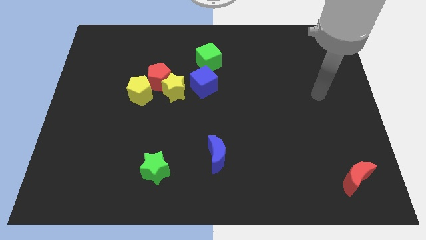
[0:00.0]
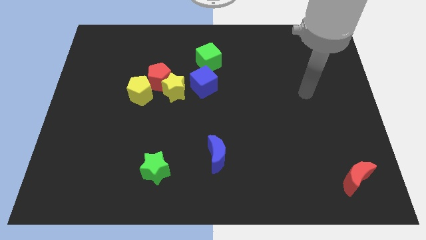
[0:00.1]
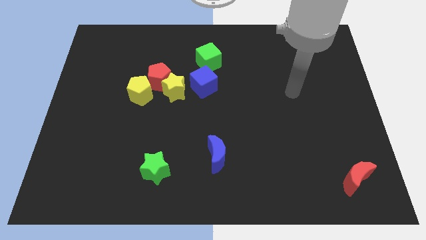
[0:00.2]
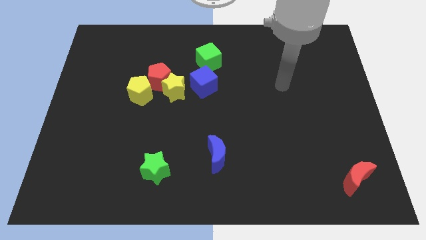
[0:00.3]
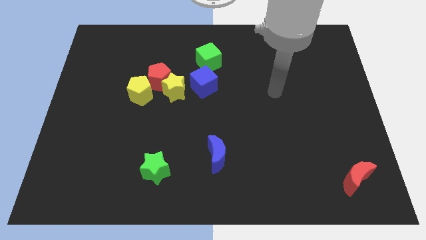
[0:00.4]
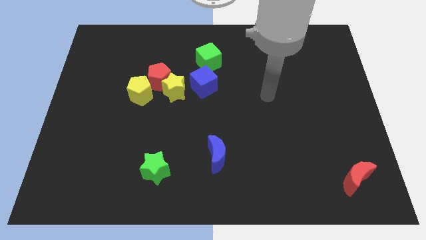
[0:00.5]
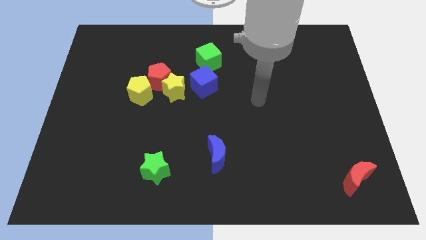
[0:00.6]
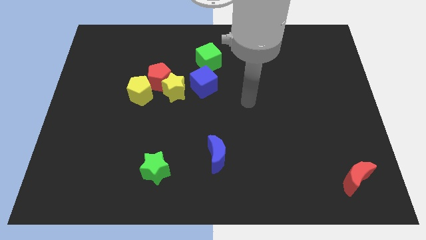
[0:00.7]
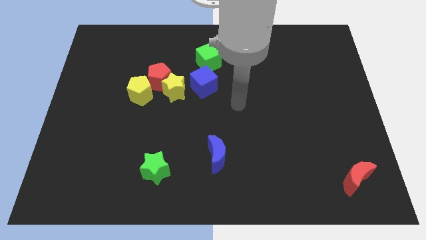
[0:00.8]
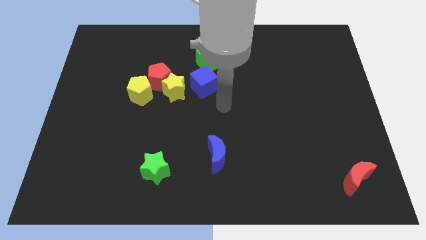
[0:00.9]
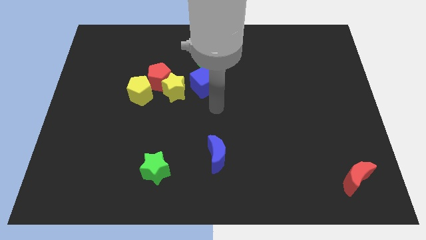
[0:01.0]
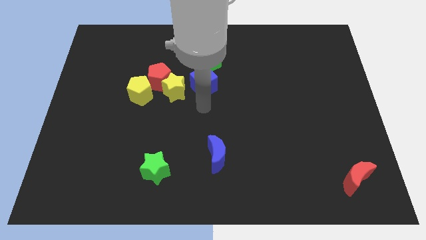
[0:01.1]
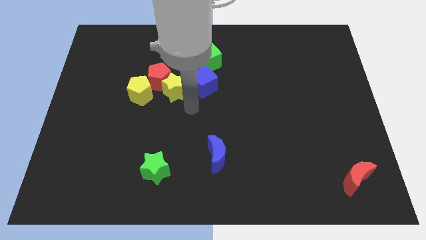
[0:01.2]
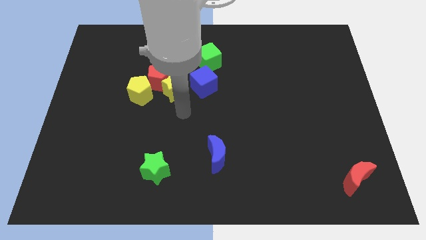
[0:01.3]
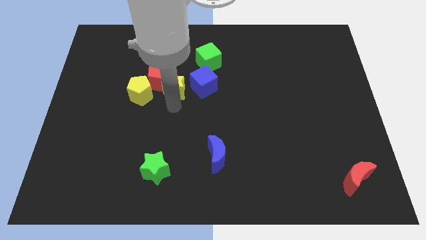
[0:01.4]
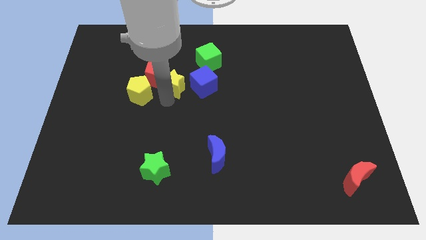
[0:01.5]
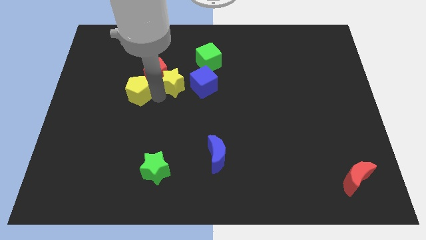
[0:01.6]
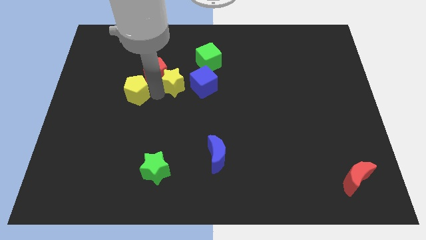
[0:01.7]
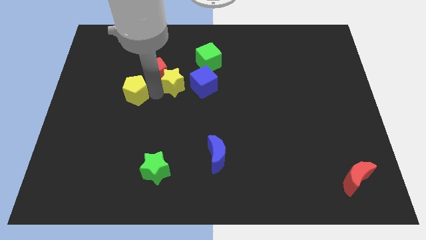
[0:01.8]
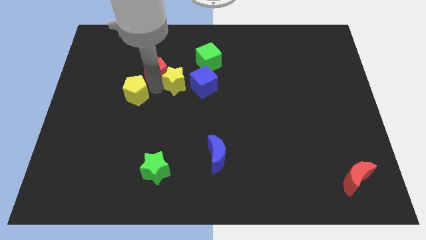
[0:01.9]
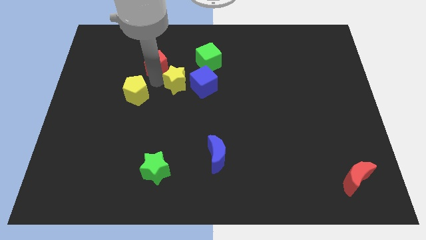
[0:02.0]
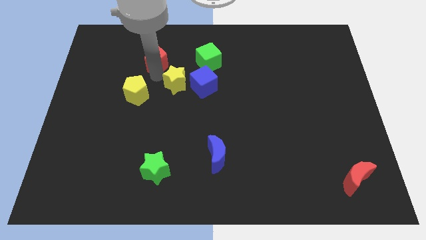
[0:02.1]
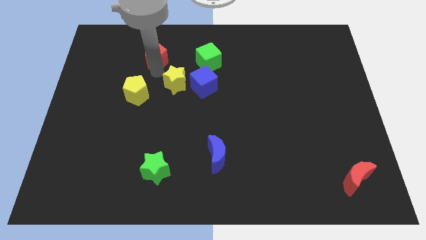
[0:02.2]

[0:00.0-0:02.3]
separate the red pentagon from the yellow star and yellow pentagon

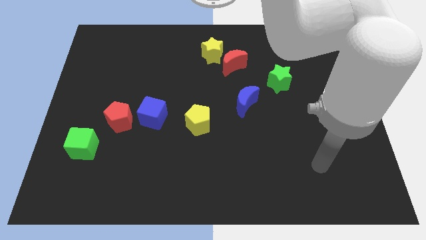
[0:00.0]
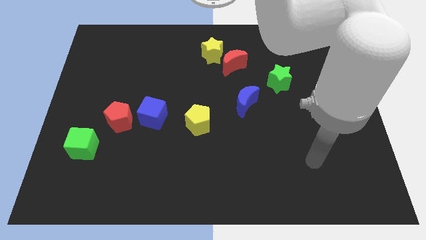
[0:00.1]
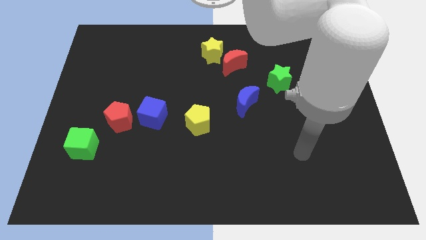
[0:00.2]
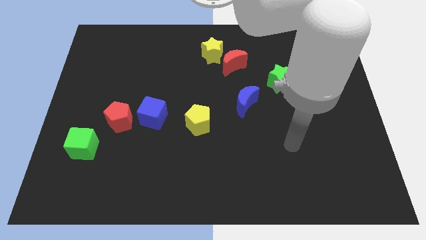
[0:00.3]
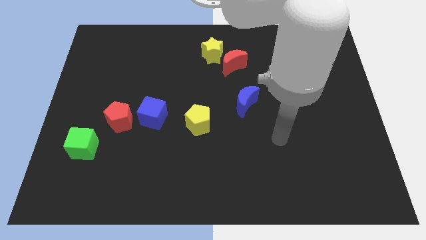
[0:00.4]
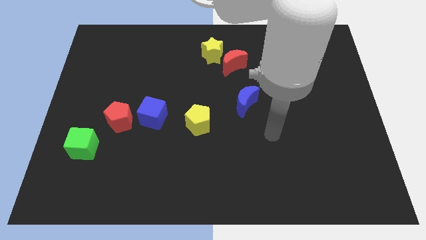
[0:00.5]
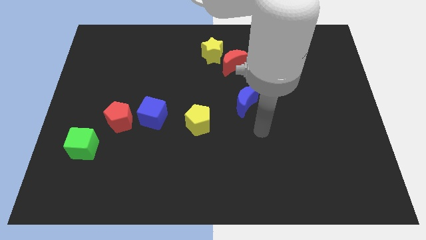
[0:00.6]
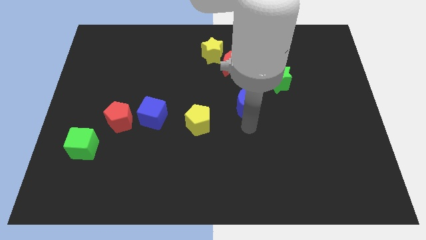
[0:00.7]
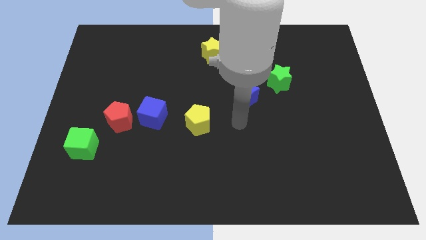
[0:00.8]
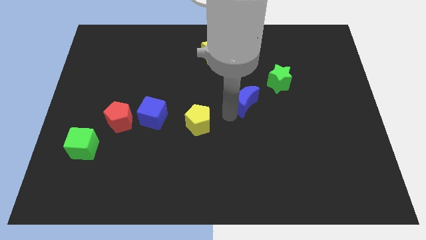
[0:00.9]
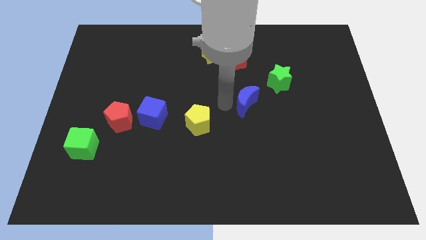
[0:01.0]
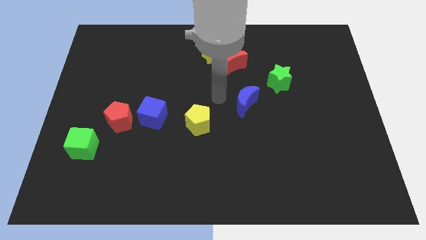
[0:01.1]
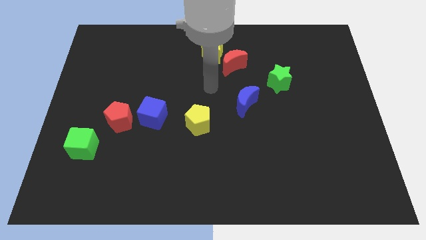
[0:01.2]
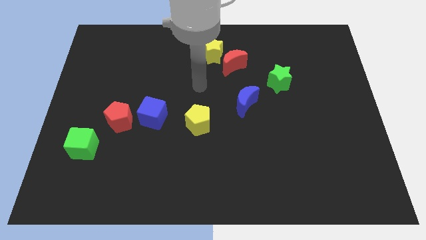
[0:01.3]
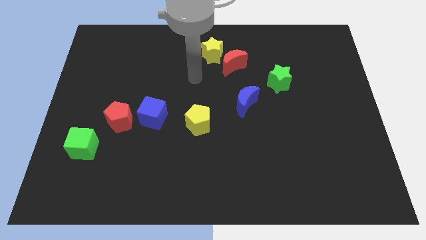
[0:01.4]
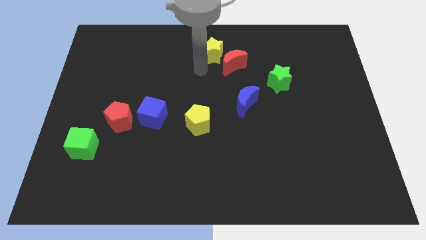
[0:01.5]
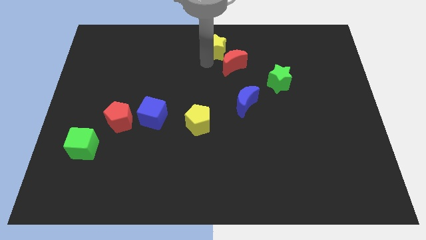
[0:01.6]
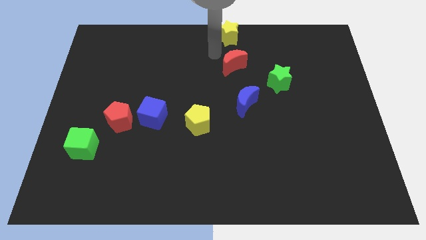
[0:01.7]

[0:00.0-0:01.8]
separate the red moon from the yellow star

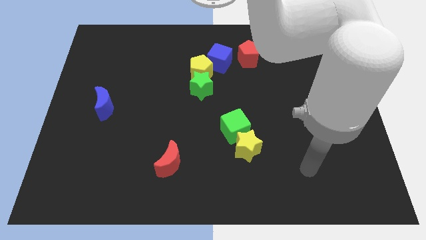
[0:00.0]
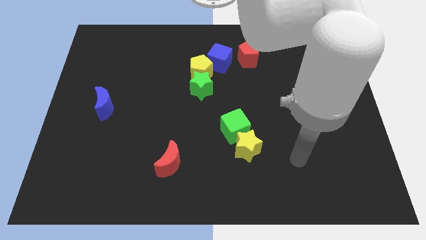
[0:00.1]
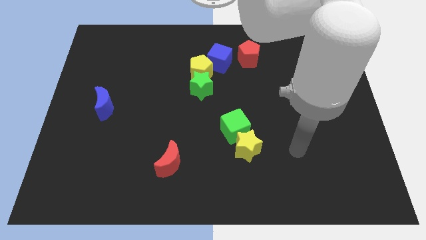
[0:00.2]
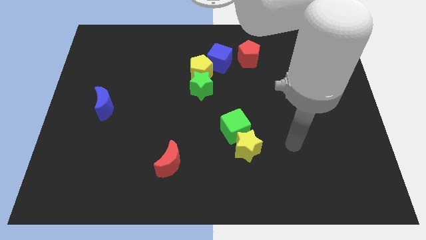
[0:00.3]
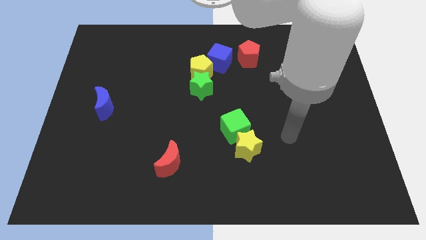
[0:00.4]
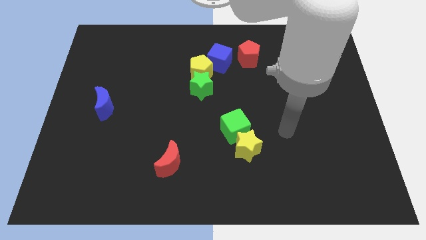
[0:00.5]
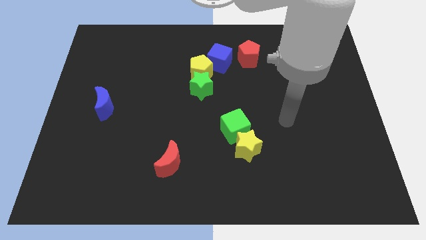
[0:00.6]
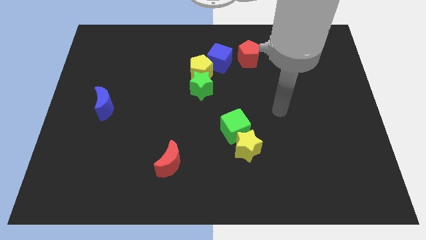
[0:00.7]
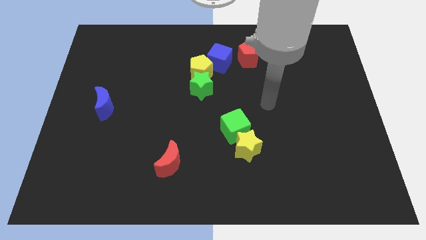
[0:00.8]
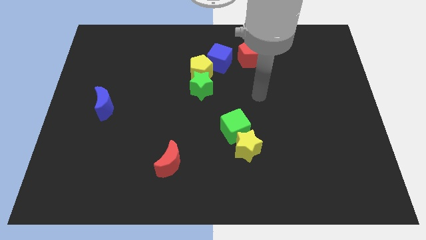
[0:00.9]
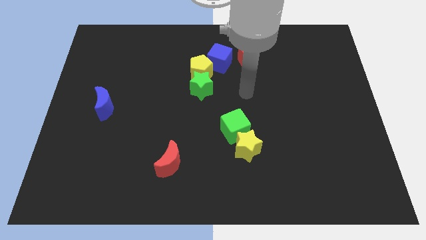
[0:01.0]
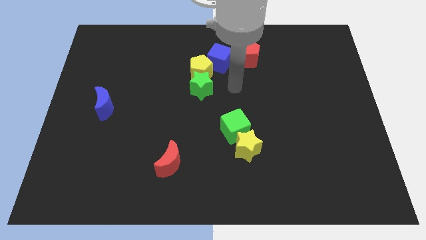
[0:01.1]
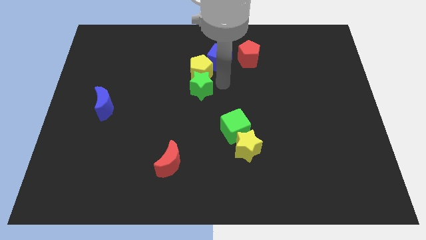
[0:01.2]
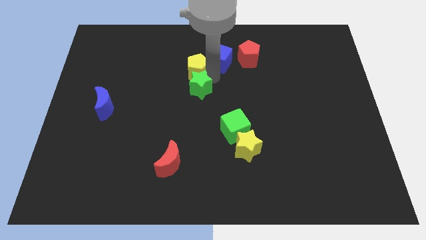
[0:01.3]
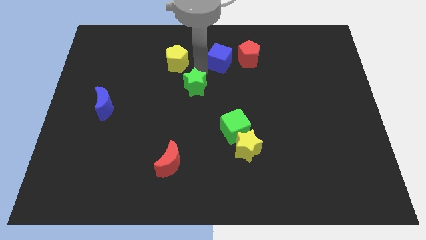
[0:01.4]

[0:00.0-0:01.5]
pull the green star apart from the yellow pentagon

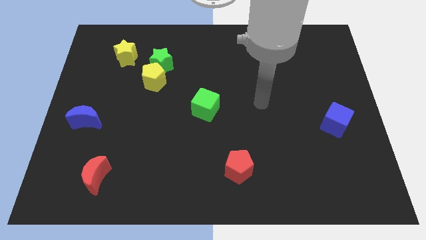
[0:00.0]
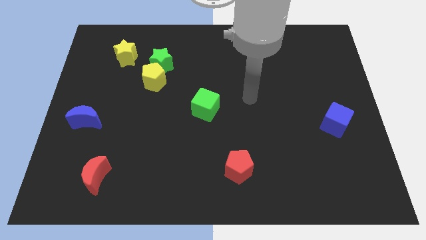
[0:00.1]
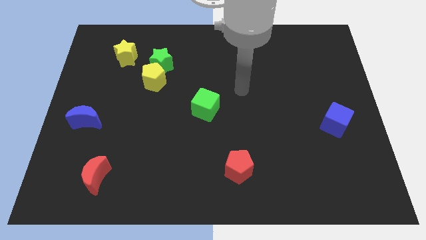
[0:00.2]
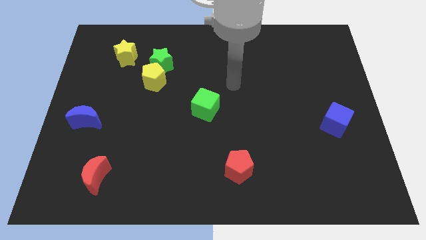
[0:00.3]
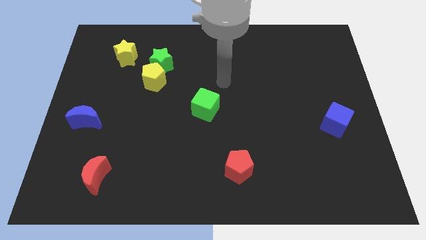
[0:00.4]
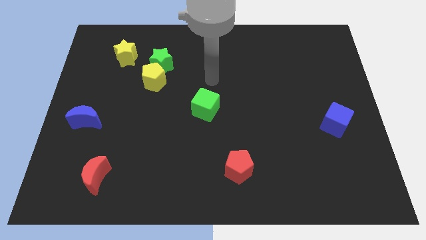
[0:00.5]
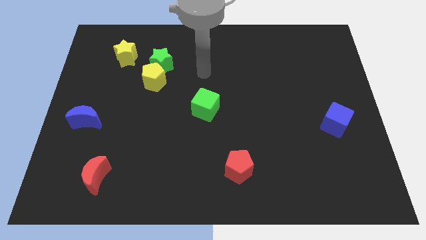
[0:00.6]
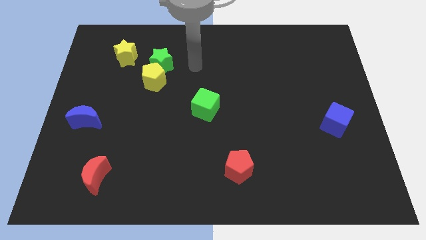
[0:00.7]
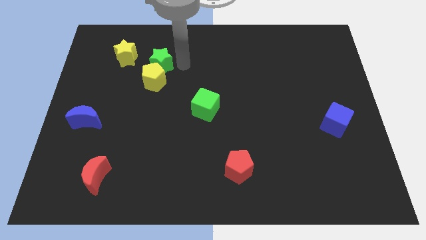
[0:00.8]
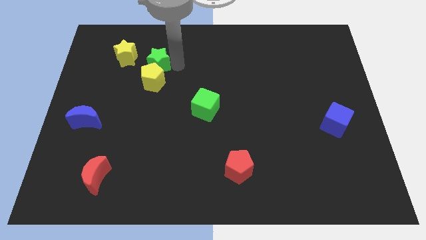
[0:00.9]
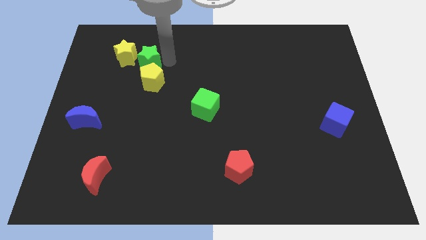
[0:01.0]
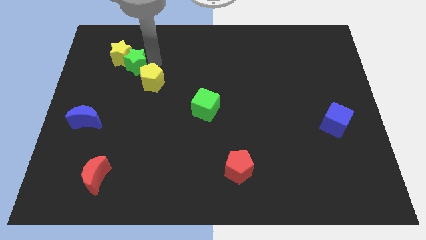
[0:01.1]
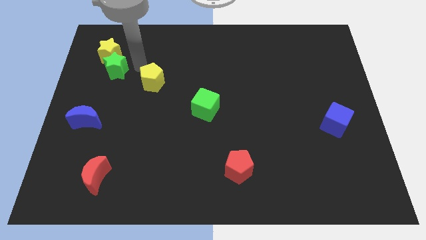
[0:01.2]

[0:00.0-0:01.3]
pull the yellow pentagon apart from the green star

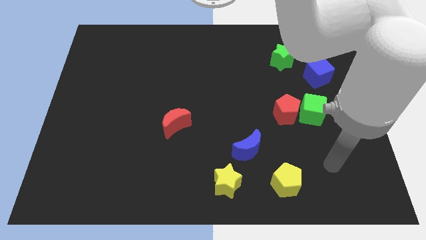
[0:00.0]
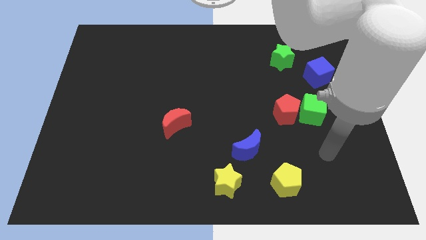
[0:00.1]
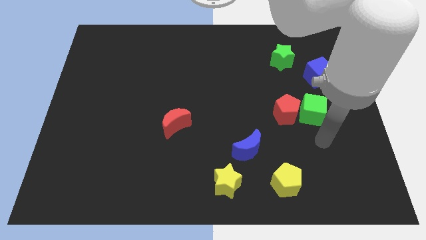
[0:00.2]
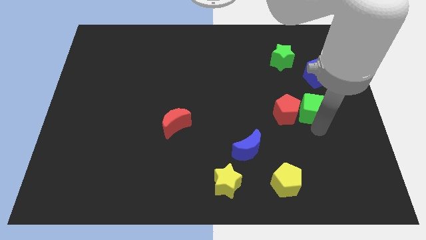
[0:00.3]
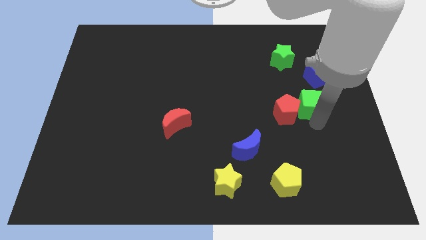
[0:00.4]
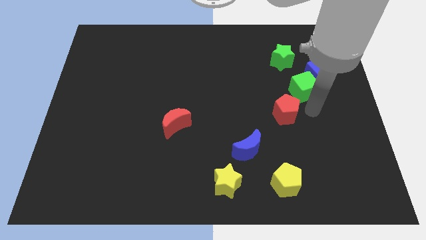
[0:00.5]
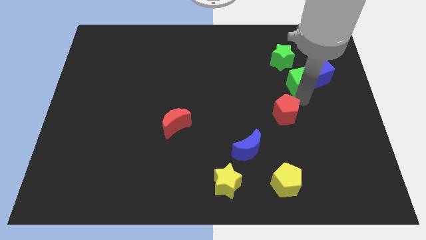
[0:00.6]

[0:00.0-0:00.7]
move the red pentagon away from the green cube

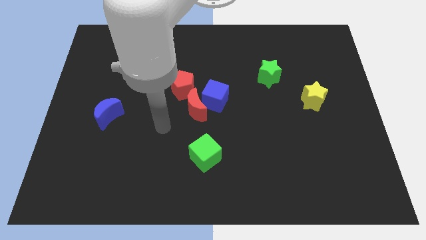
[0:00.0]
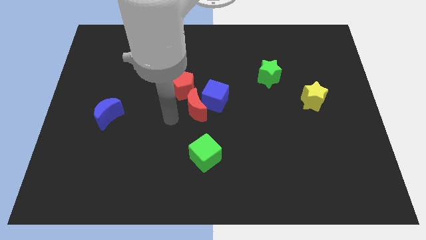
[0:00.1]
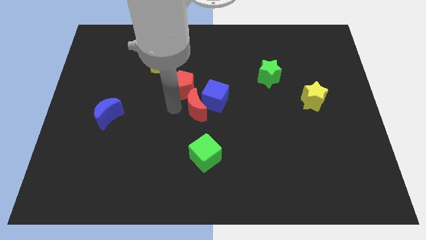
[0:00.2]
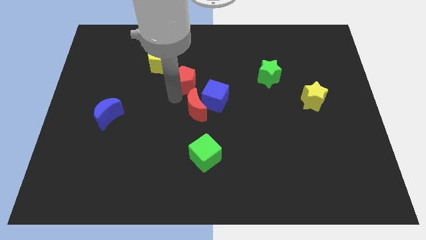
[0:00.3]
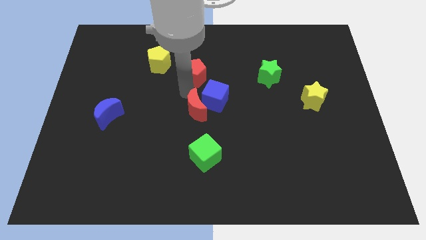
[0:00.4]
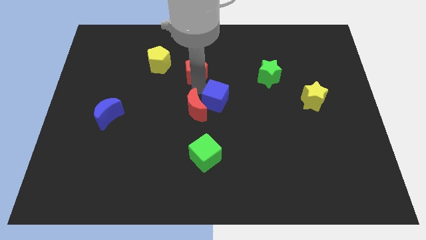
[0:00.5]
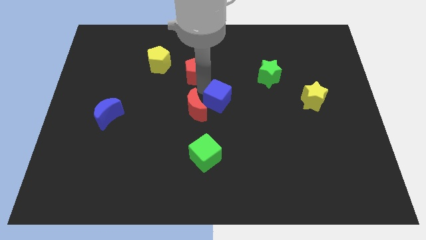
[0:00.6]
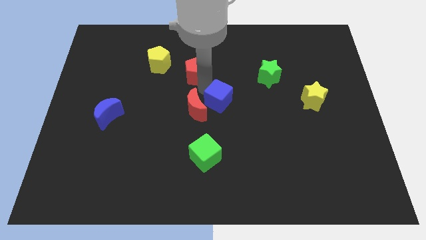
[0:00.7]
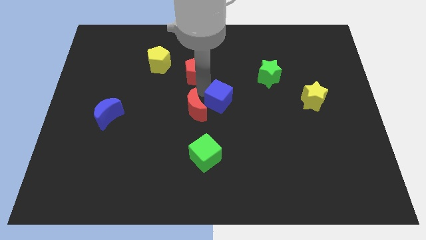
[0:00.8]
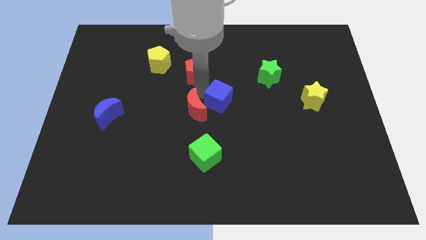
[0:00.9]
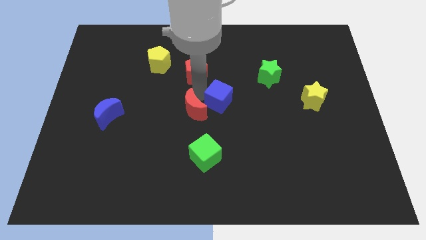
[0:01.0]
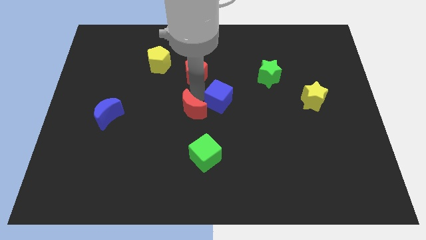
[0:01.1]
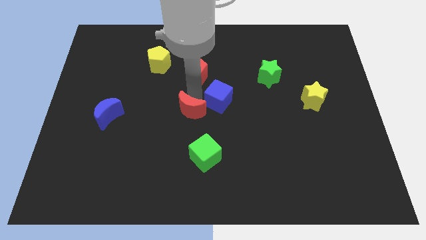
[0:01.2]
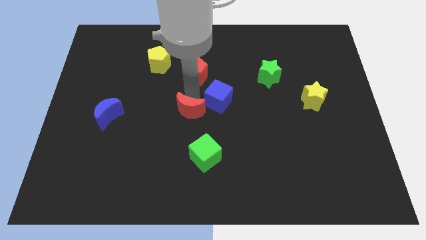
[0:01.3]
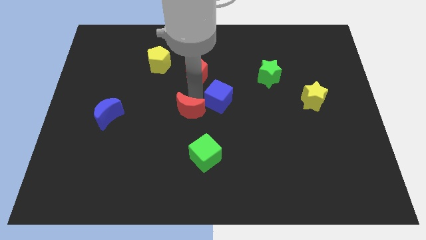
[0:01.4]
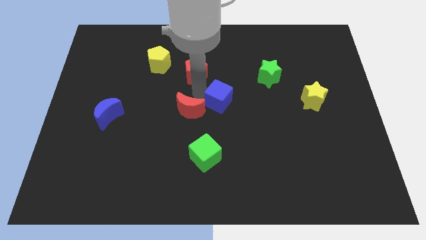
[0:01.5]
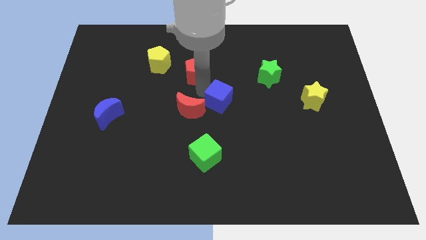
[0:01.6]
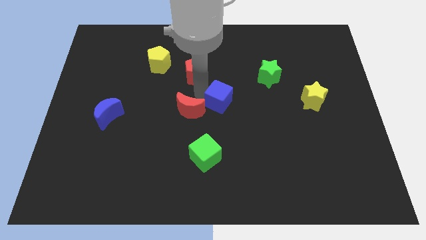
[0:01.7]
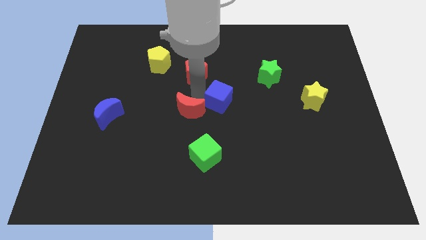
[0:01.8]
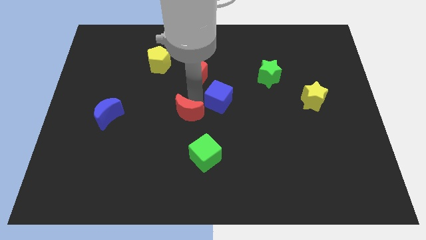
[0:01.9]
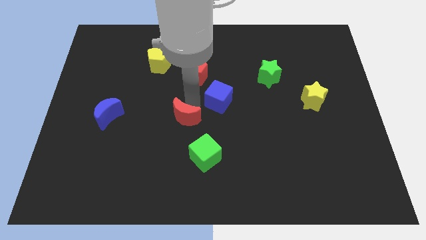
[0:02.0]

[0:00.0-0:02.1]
move the red moon away from the blue cube and red pentagon
